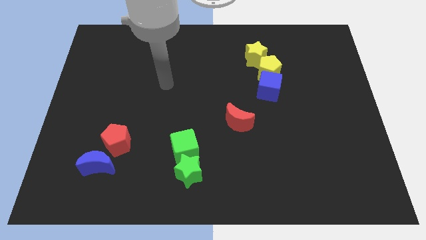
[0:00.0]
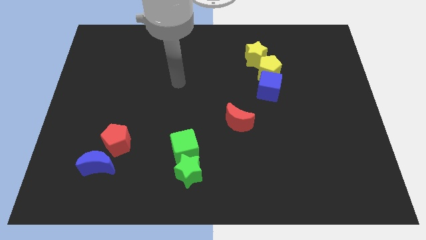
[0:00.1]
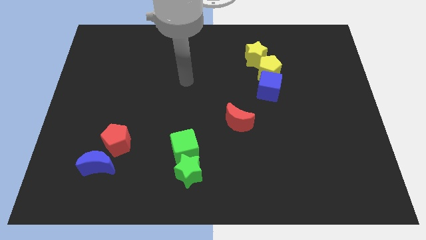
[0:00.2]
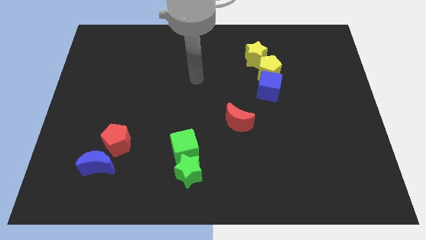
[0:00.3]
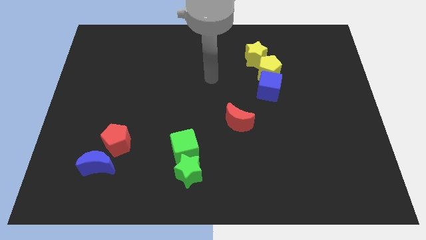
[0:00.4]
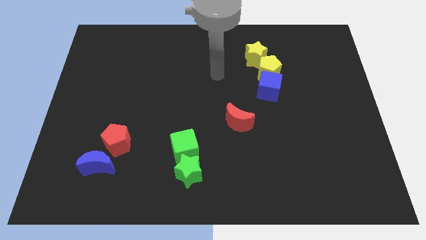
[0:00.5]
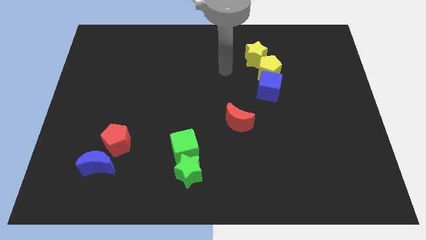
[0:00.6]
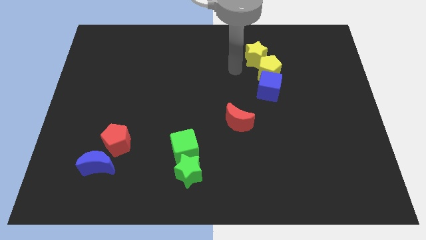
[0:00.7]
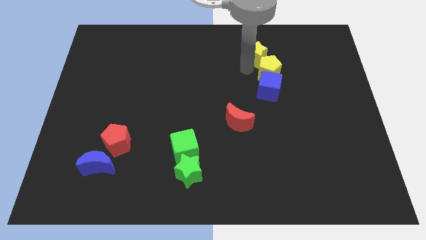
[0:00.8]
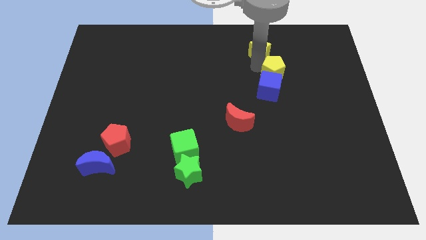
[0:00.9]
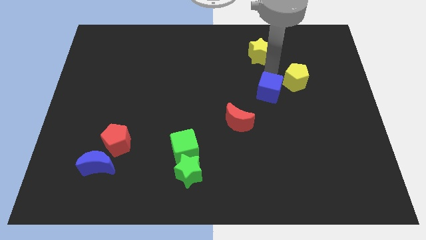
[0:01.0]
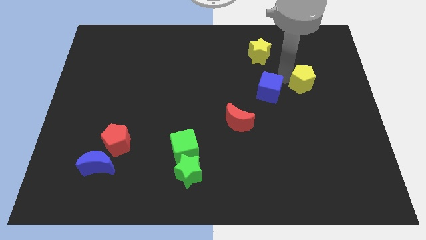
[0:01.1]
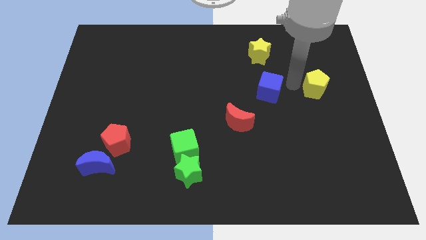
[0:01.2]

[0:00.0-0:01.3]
move the blue cube away from the yellow pentagon

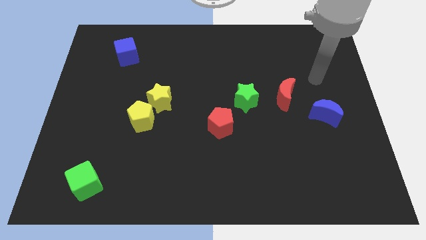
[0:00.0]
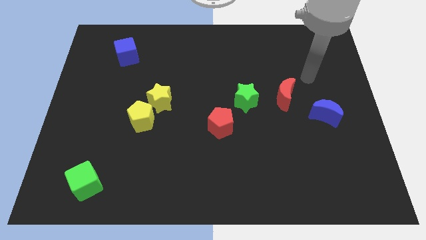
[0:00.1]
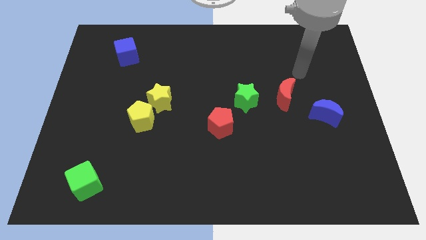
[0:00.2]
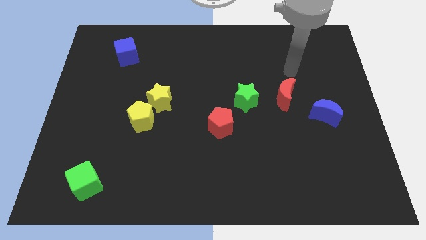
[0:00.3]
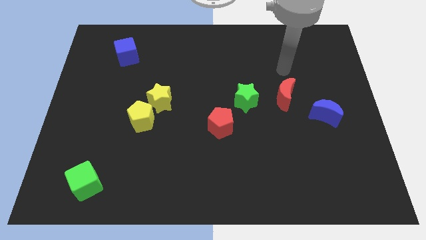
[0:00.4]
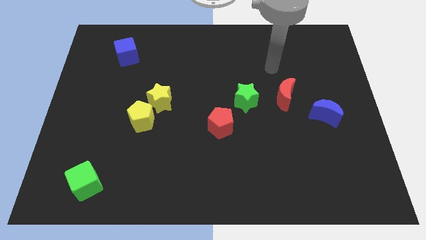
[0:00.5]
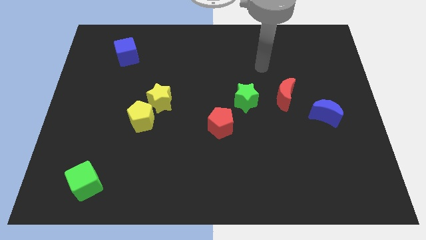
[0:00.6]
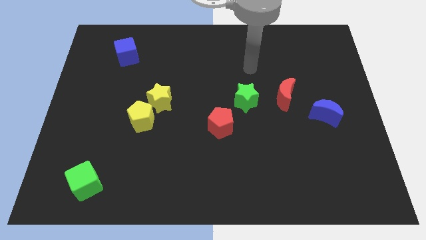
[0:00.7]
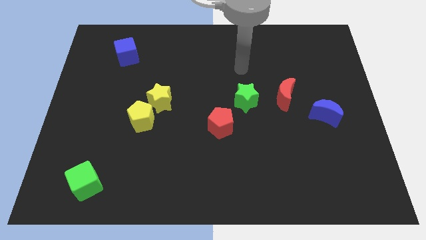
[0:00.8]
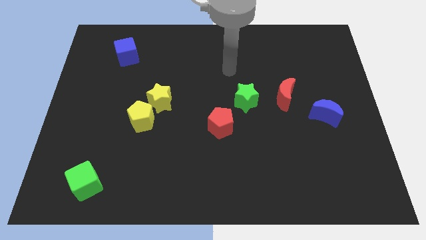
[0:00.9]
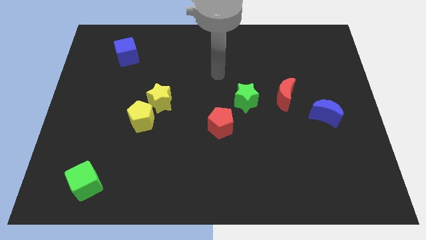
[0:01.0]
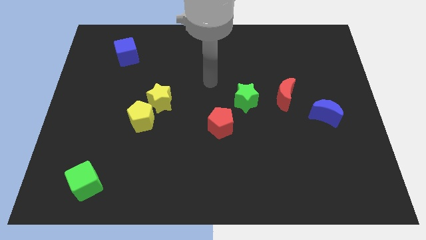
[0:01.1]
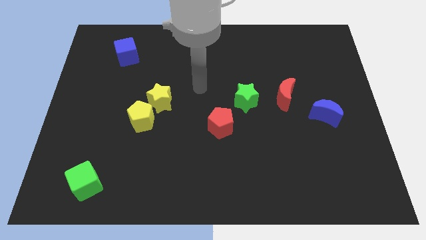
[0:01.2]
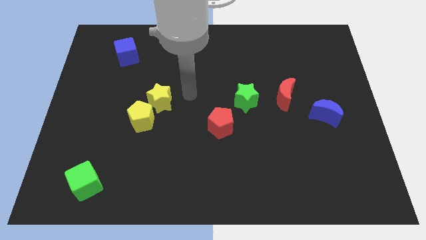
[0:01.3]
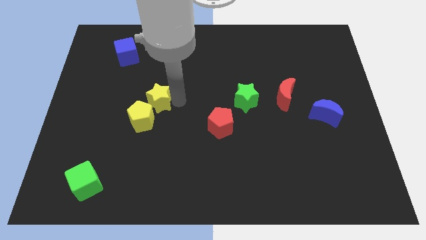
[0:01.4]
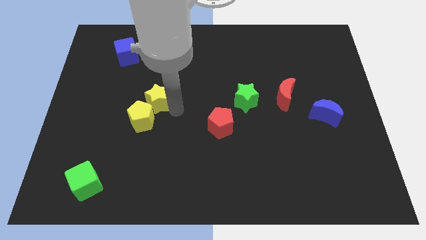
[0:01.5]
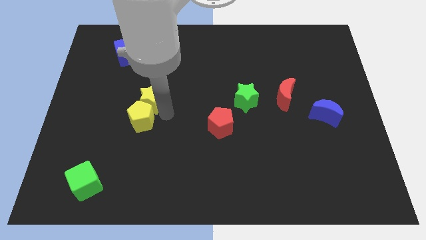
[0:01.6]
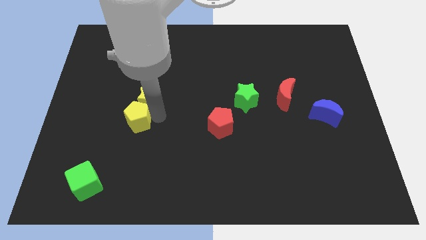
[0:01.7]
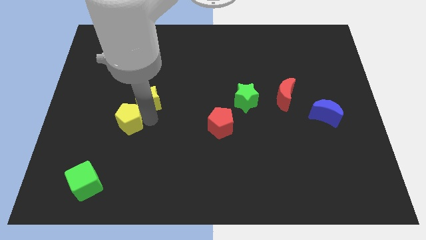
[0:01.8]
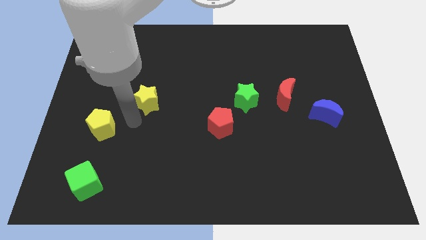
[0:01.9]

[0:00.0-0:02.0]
separate the yellow star from the yellow pentagon

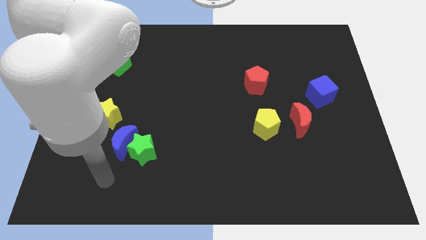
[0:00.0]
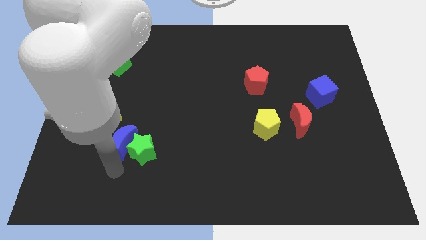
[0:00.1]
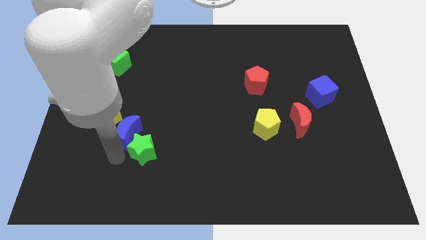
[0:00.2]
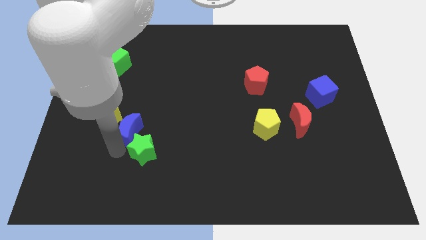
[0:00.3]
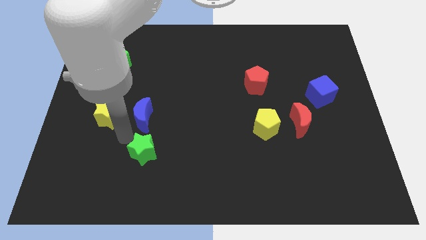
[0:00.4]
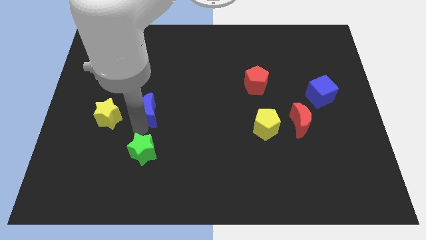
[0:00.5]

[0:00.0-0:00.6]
move the green star away from the blue moon

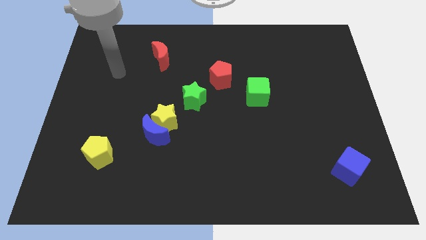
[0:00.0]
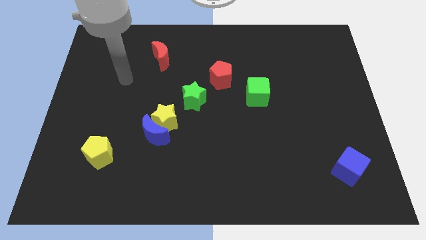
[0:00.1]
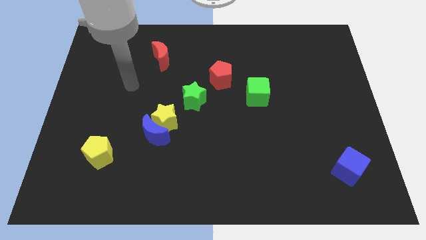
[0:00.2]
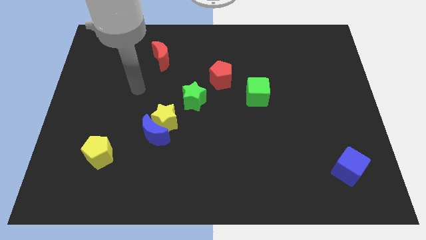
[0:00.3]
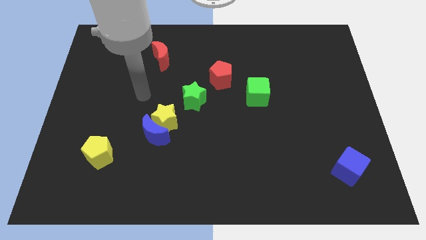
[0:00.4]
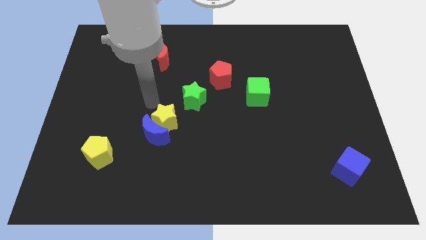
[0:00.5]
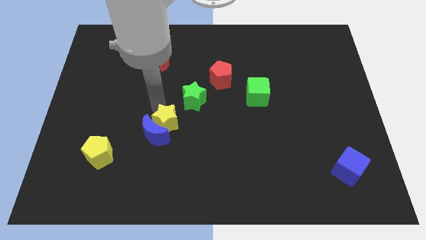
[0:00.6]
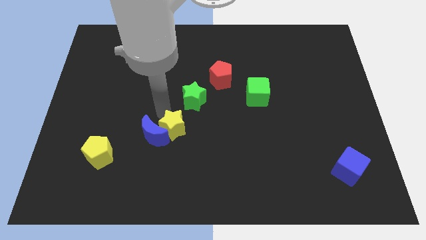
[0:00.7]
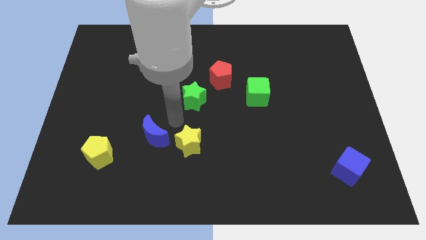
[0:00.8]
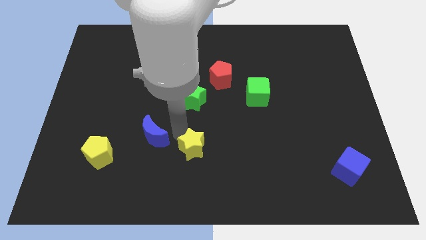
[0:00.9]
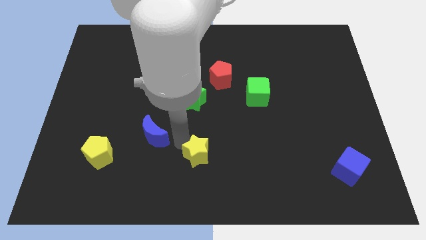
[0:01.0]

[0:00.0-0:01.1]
separate the blue moon from the yellow star

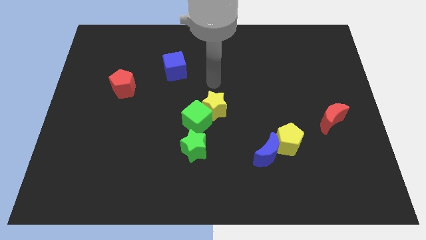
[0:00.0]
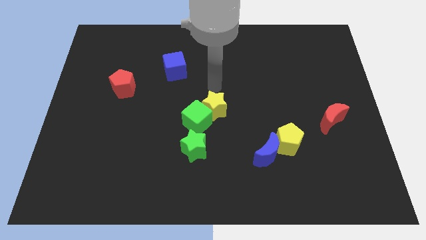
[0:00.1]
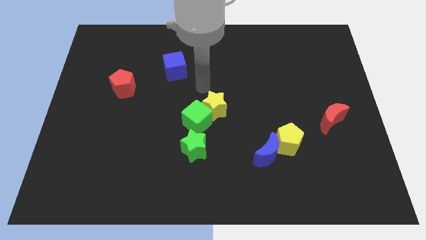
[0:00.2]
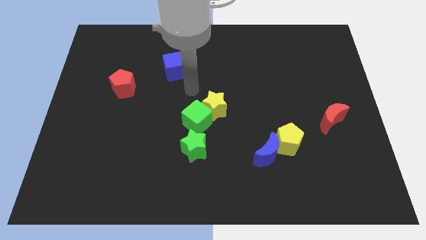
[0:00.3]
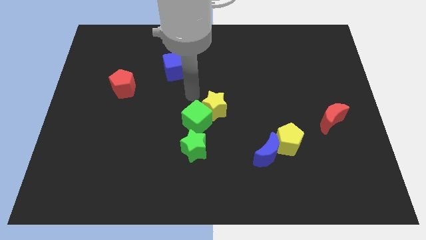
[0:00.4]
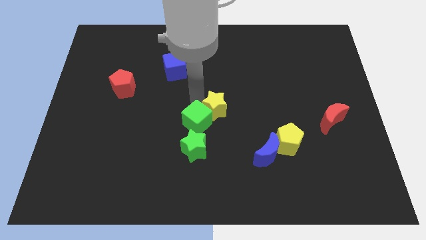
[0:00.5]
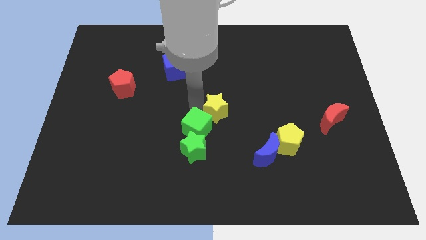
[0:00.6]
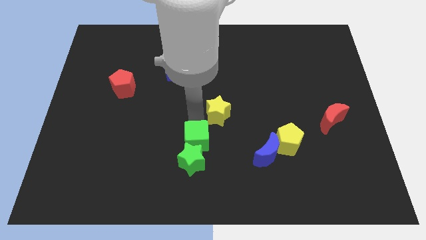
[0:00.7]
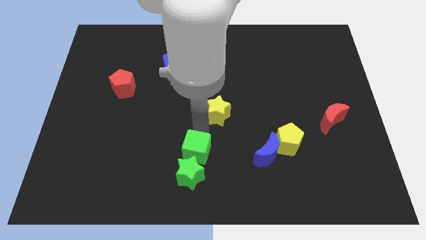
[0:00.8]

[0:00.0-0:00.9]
pull the yellow star apart from the green cube

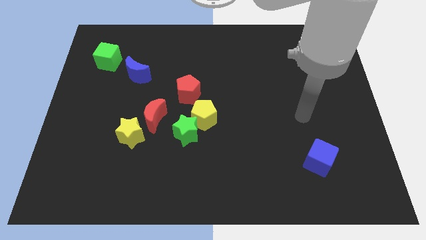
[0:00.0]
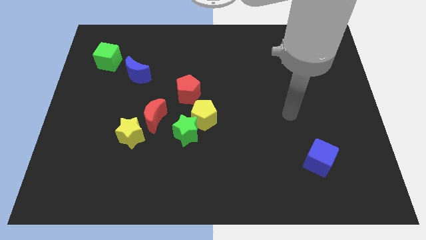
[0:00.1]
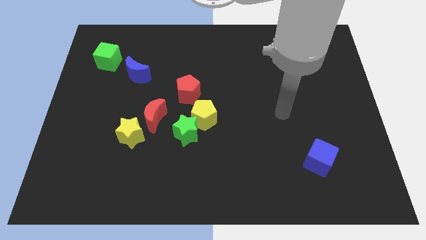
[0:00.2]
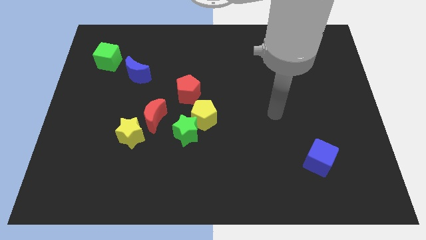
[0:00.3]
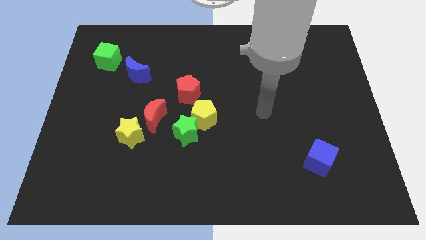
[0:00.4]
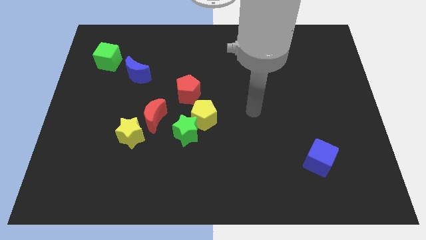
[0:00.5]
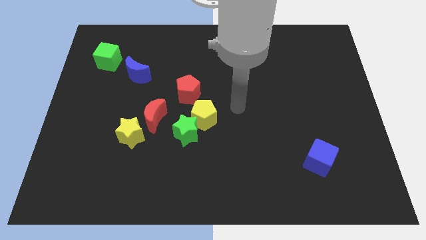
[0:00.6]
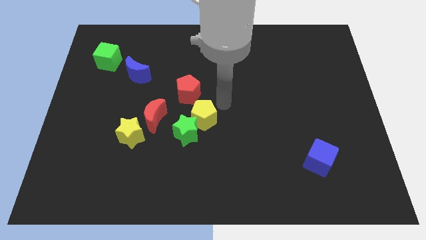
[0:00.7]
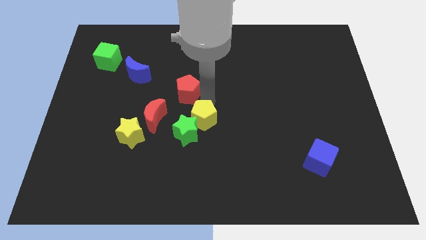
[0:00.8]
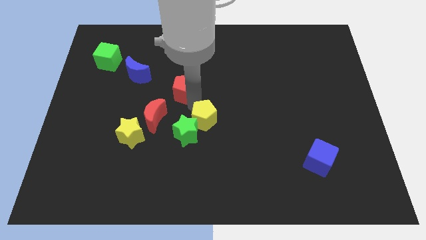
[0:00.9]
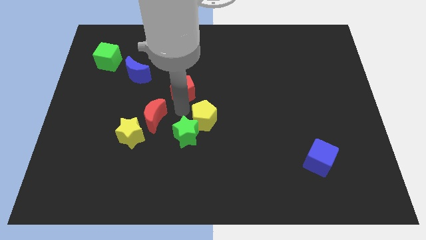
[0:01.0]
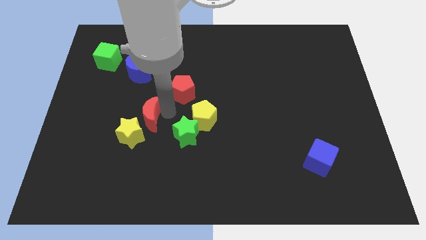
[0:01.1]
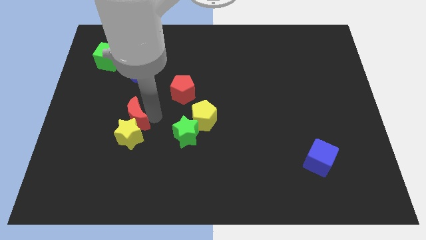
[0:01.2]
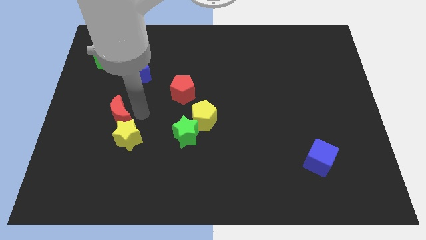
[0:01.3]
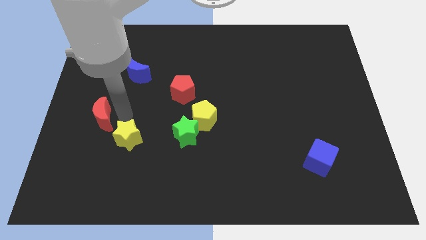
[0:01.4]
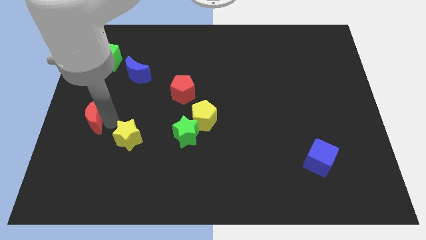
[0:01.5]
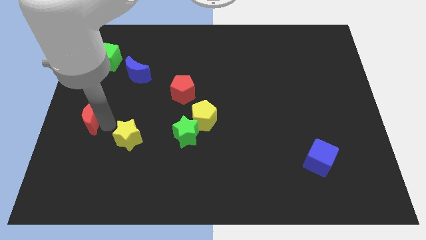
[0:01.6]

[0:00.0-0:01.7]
move the yellow star away from the red moon

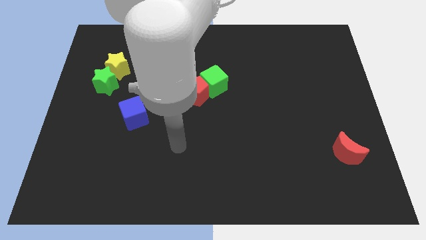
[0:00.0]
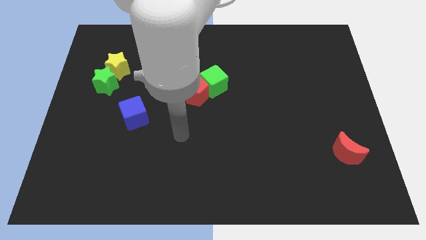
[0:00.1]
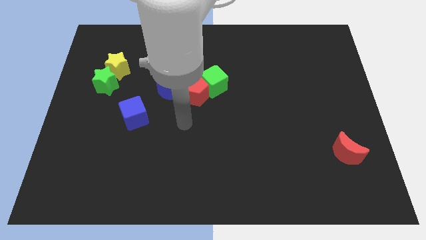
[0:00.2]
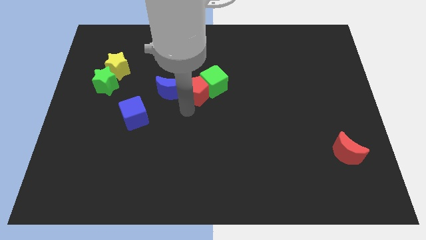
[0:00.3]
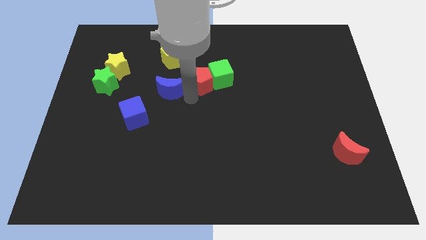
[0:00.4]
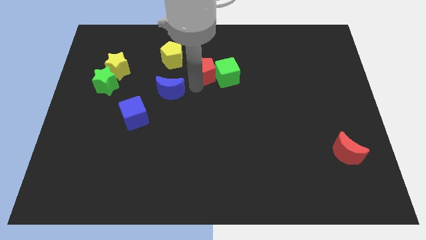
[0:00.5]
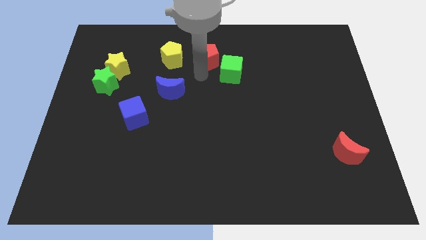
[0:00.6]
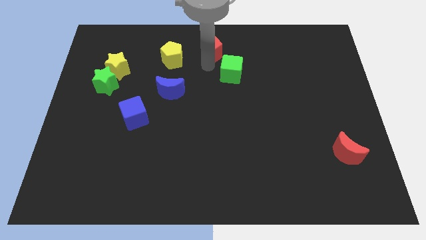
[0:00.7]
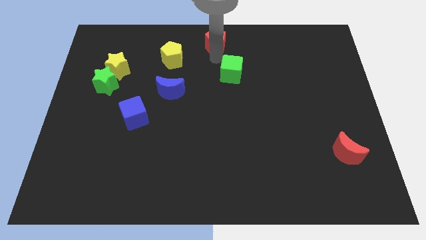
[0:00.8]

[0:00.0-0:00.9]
move the green cube away from the red pentagon

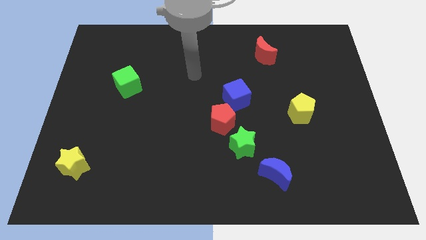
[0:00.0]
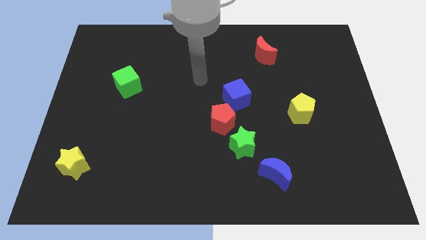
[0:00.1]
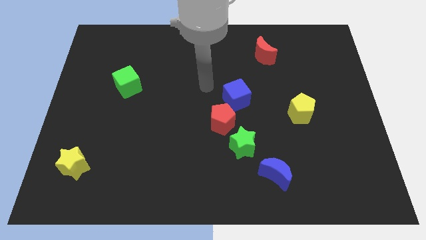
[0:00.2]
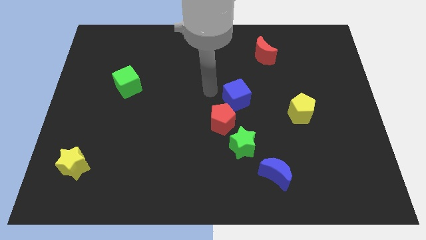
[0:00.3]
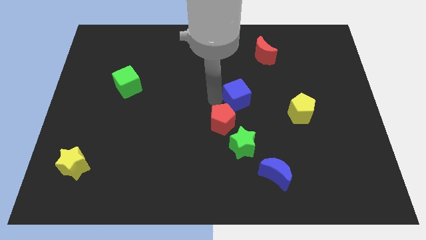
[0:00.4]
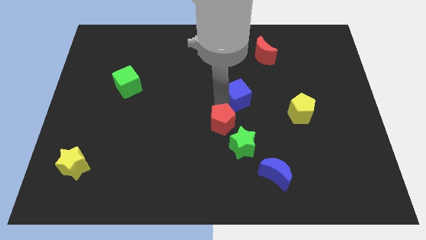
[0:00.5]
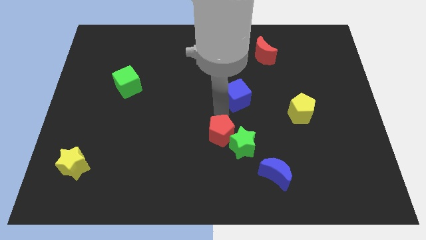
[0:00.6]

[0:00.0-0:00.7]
move the blue cube away from the red pentagon
